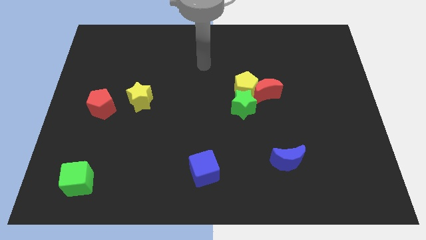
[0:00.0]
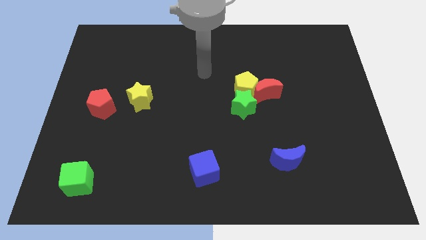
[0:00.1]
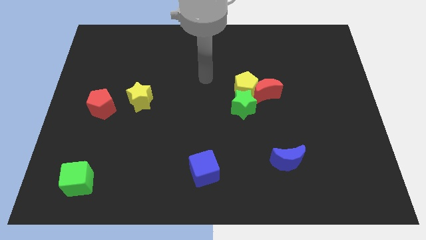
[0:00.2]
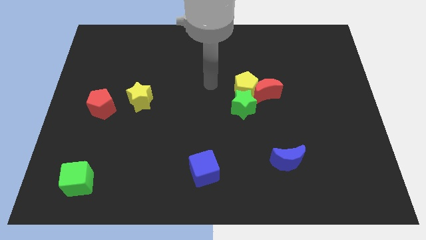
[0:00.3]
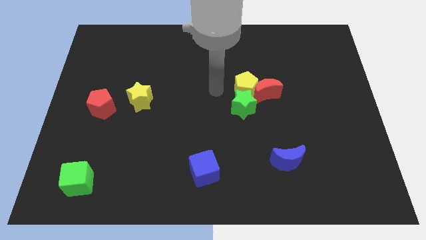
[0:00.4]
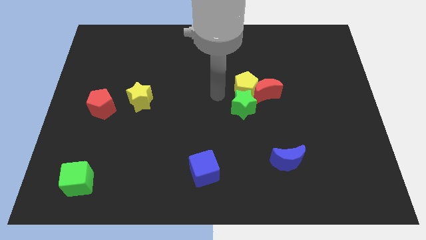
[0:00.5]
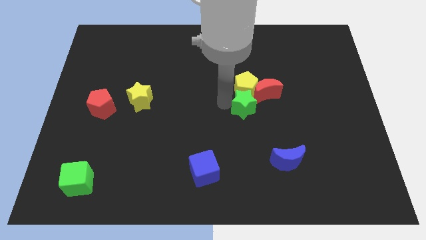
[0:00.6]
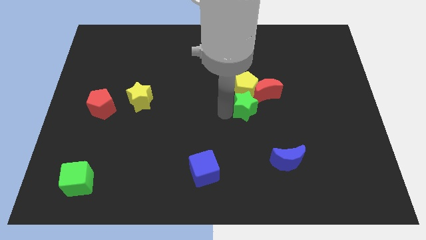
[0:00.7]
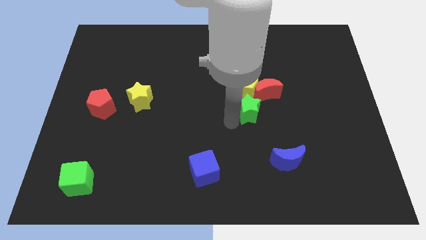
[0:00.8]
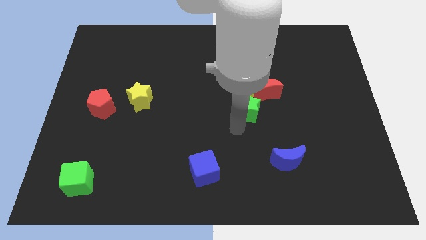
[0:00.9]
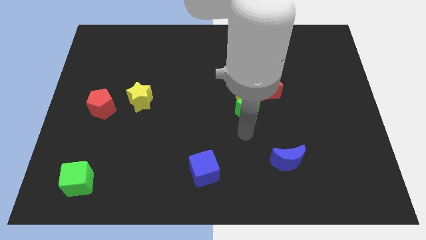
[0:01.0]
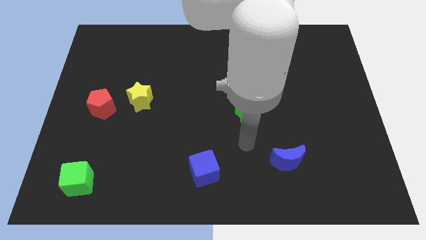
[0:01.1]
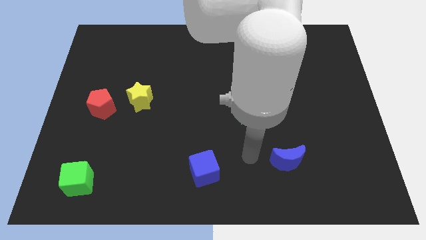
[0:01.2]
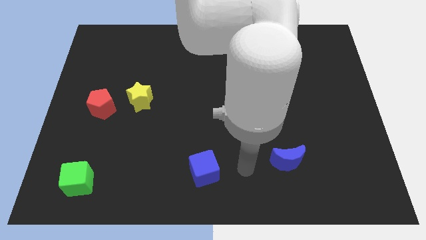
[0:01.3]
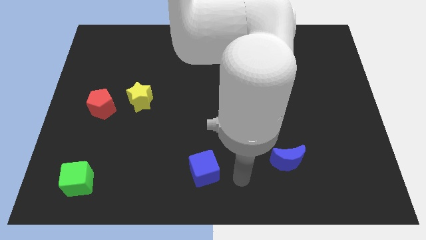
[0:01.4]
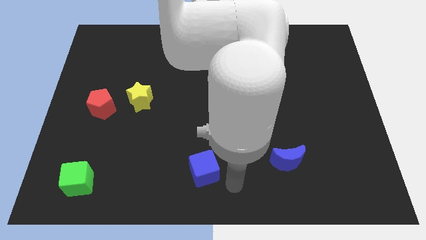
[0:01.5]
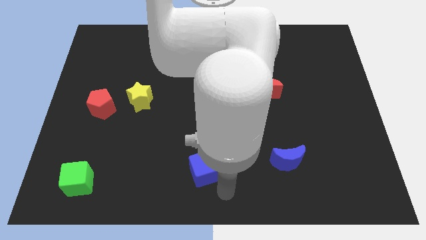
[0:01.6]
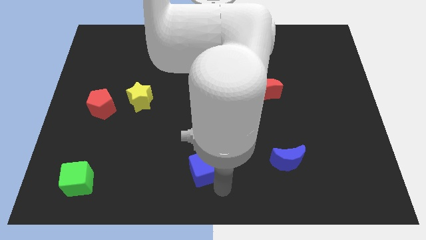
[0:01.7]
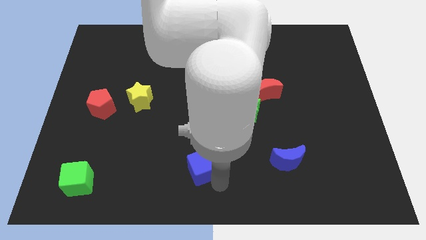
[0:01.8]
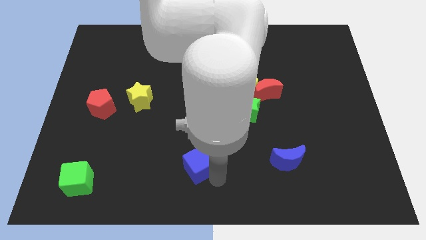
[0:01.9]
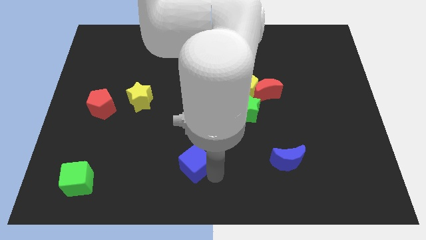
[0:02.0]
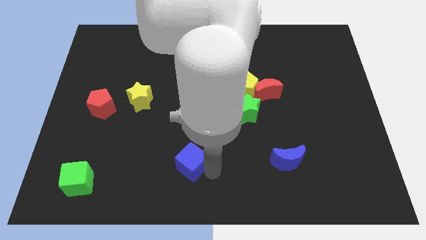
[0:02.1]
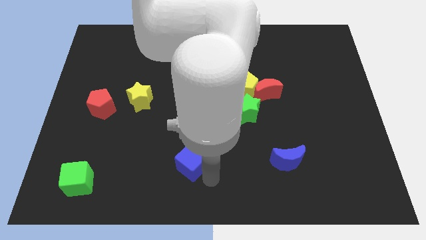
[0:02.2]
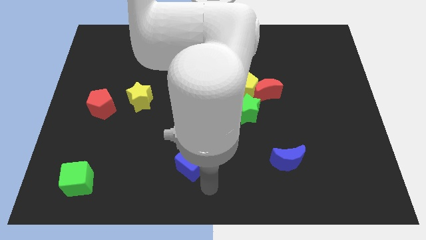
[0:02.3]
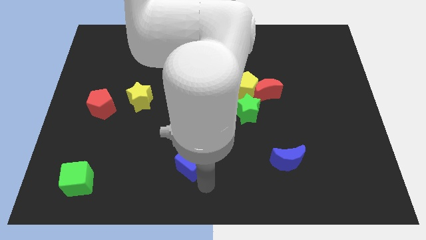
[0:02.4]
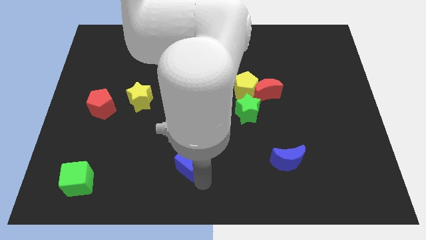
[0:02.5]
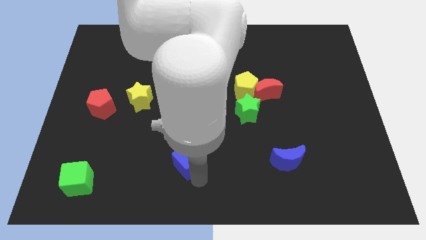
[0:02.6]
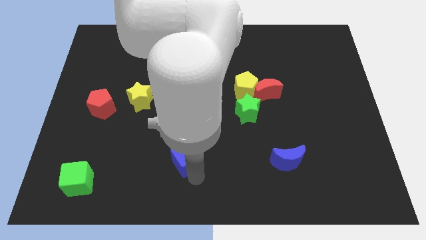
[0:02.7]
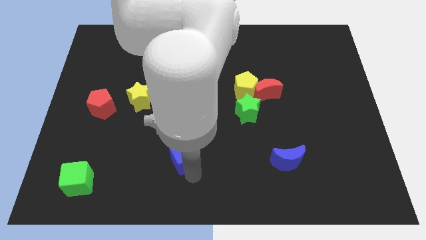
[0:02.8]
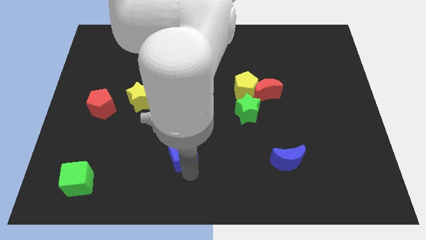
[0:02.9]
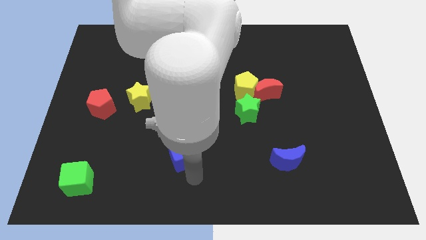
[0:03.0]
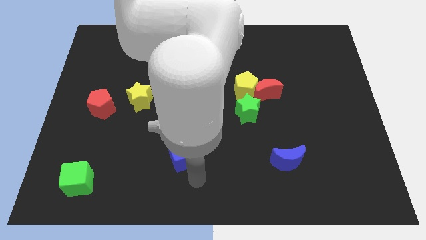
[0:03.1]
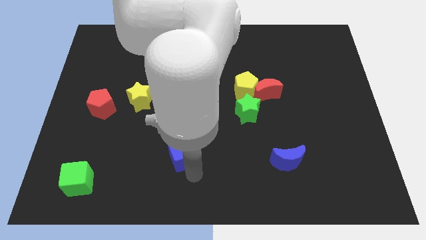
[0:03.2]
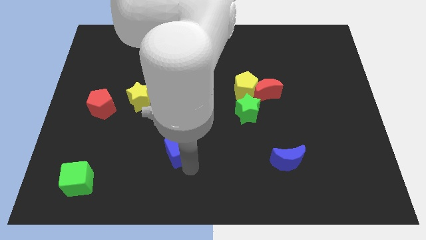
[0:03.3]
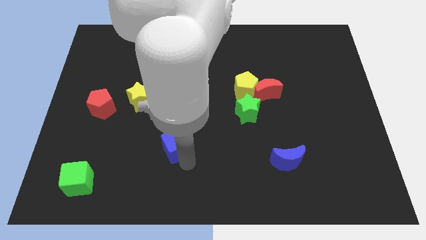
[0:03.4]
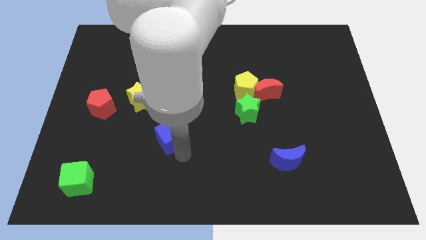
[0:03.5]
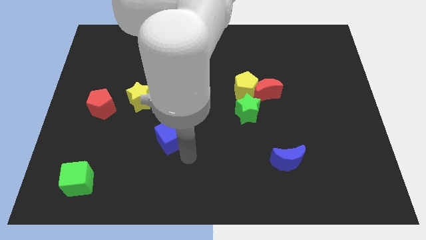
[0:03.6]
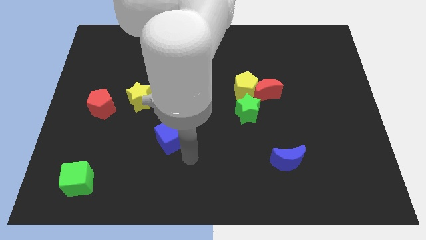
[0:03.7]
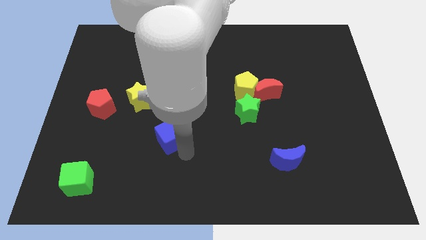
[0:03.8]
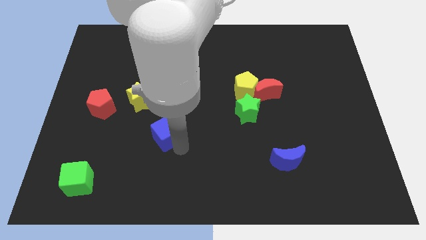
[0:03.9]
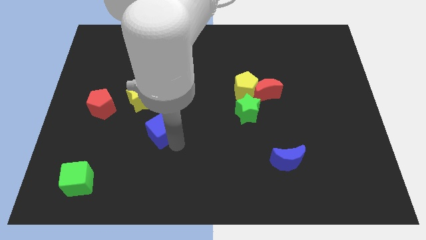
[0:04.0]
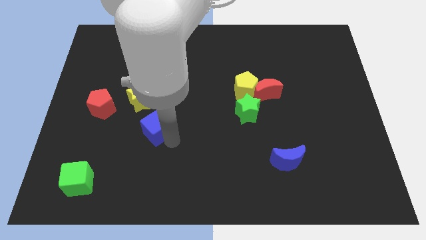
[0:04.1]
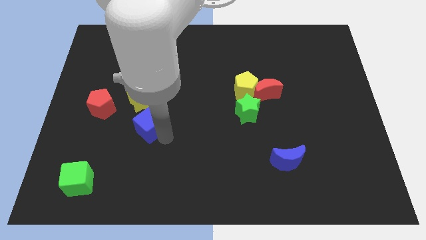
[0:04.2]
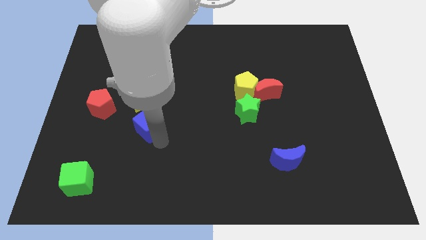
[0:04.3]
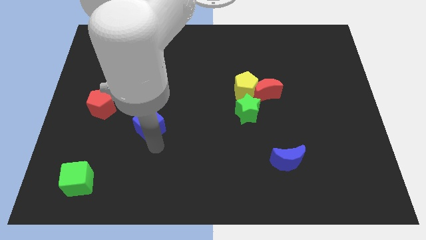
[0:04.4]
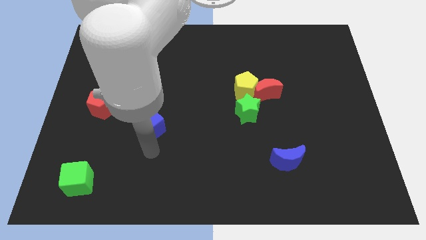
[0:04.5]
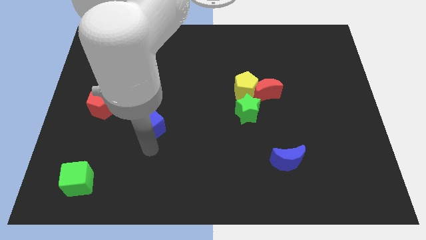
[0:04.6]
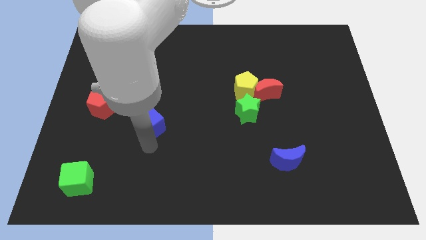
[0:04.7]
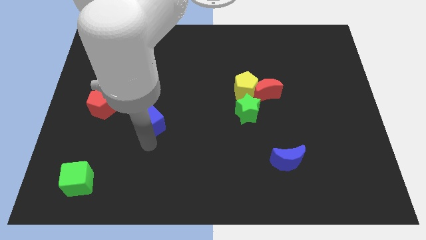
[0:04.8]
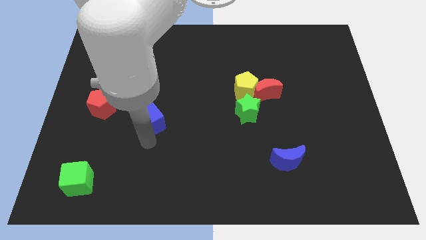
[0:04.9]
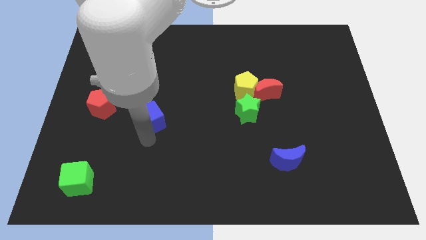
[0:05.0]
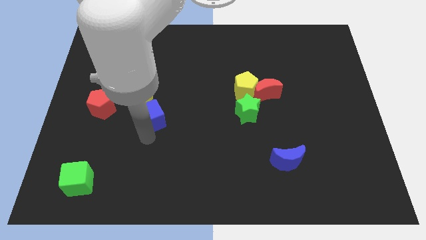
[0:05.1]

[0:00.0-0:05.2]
slide the blue cube to the yellow star

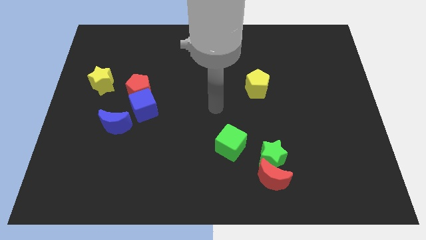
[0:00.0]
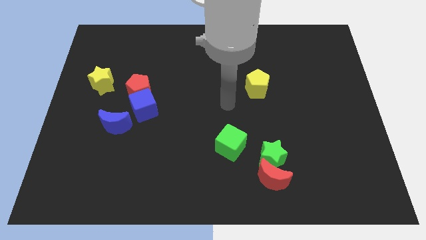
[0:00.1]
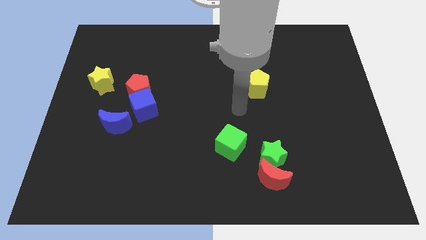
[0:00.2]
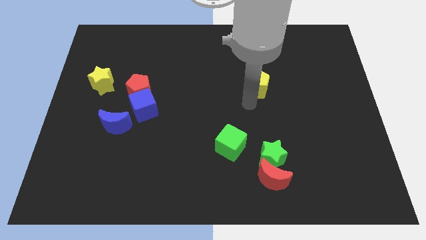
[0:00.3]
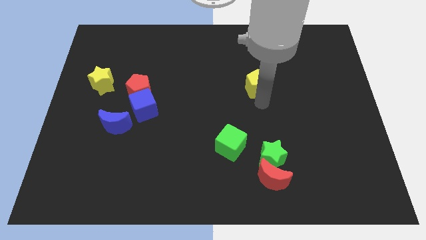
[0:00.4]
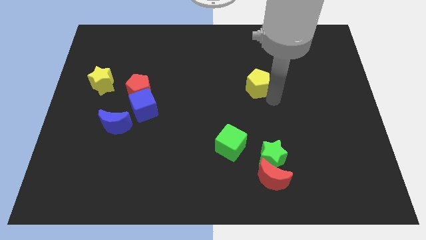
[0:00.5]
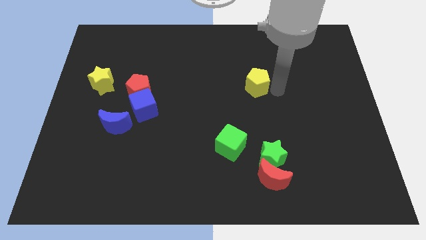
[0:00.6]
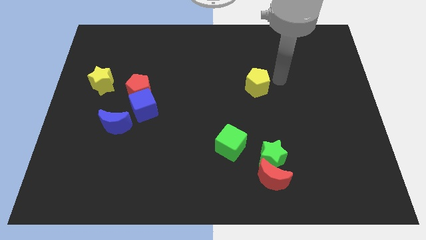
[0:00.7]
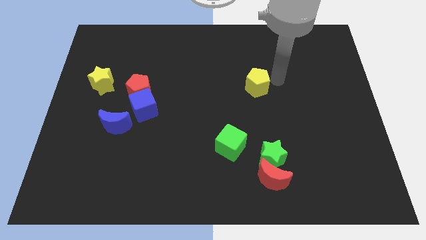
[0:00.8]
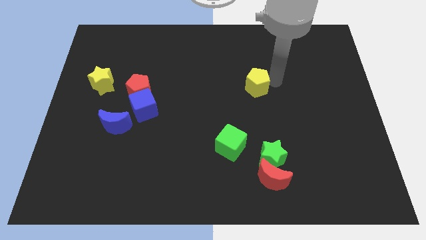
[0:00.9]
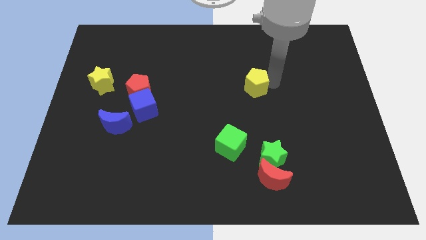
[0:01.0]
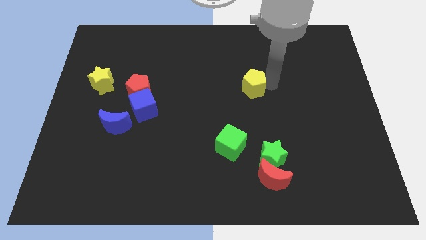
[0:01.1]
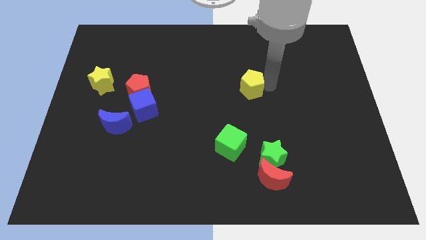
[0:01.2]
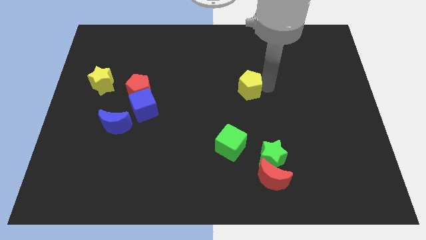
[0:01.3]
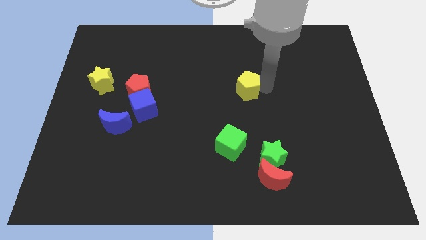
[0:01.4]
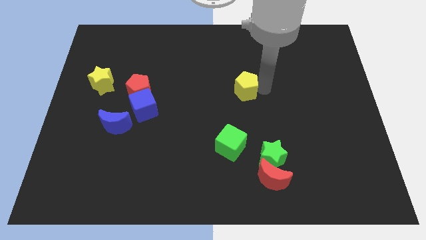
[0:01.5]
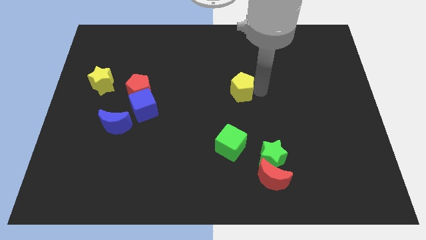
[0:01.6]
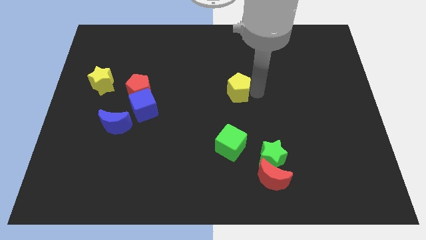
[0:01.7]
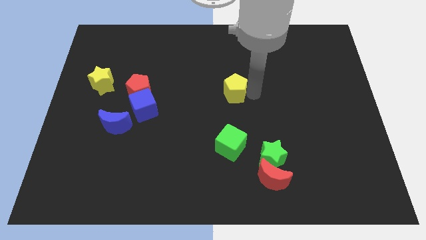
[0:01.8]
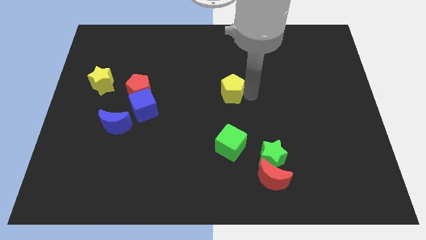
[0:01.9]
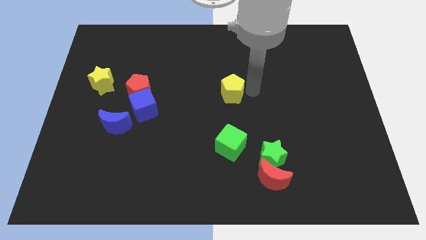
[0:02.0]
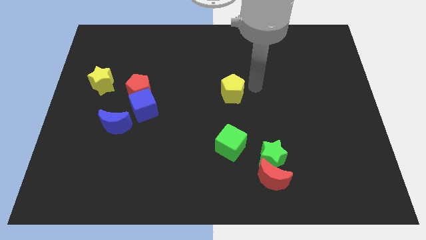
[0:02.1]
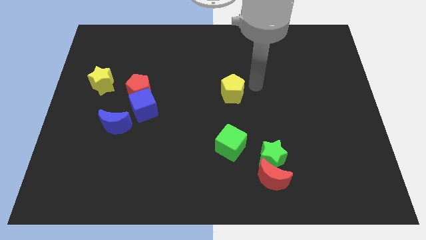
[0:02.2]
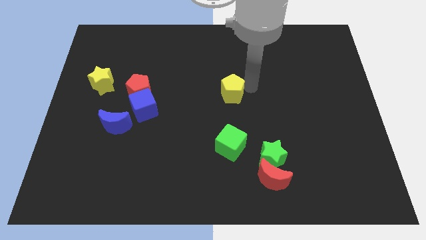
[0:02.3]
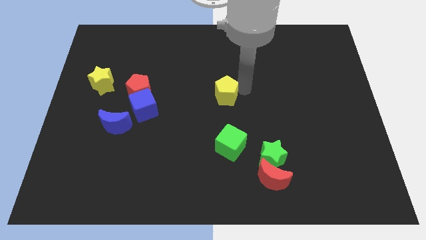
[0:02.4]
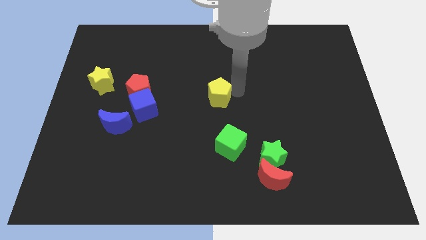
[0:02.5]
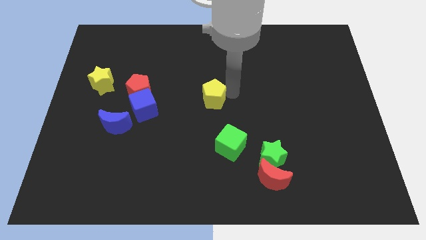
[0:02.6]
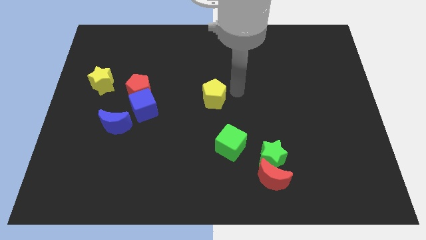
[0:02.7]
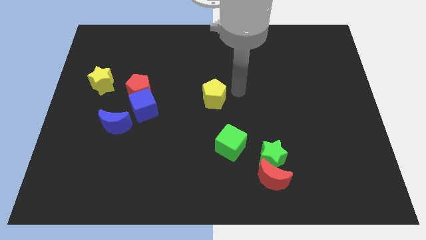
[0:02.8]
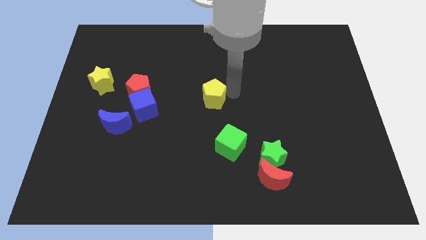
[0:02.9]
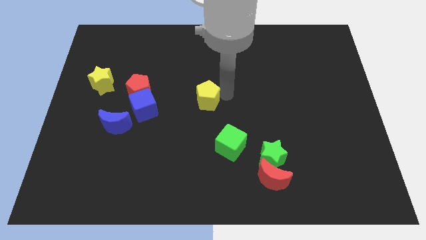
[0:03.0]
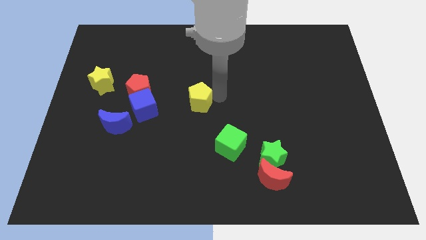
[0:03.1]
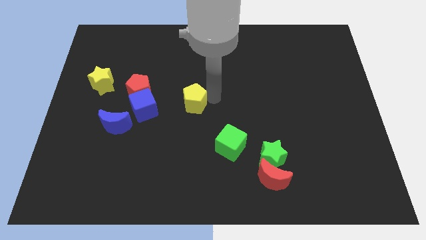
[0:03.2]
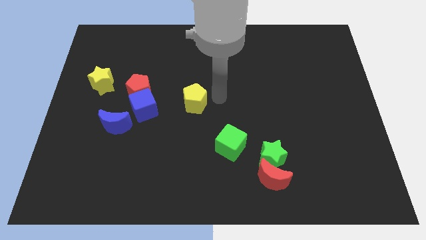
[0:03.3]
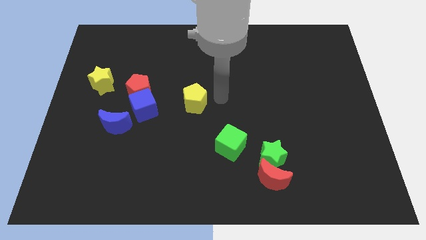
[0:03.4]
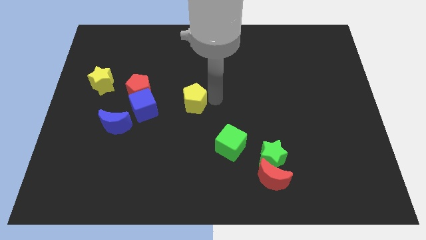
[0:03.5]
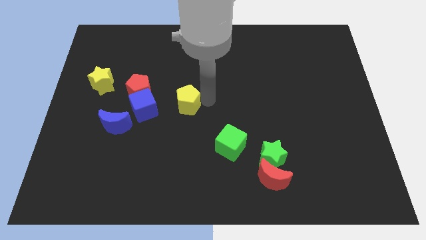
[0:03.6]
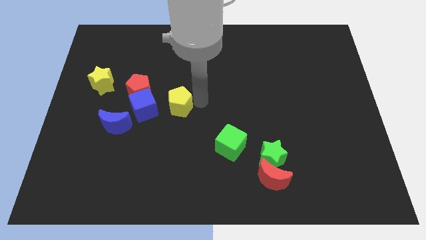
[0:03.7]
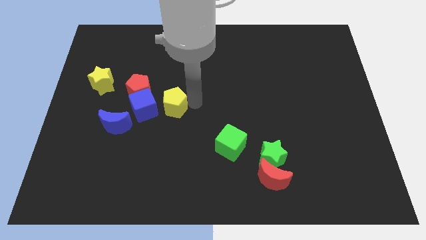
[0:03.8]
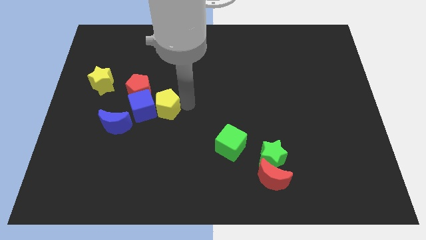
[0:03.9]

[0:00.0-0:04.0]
push the yellow pentagon towards the blue cube
